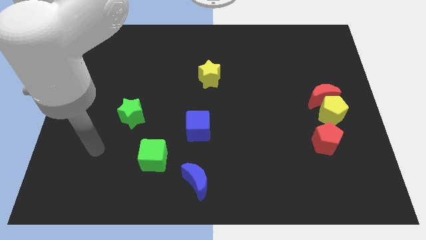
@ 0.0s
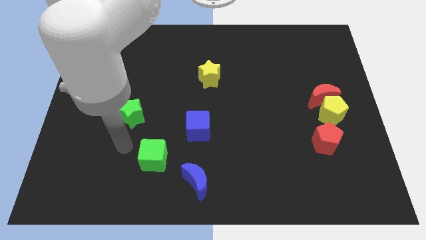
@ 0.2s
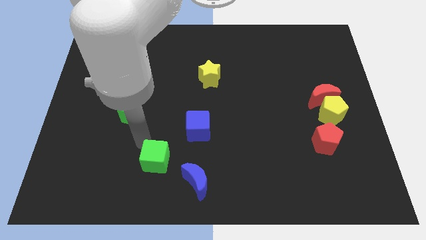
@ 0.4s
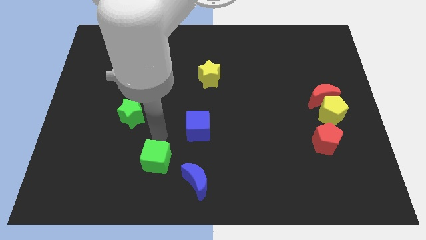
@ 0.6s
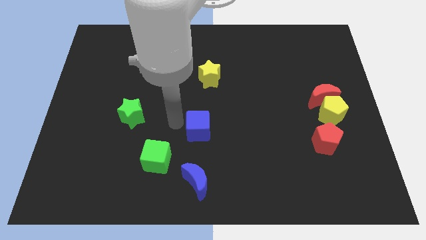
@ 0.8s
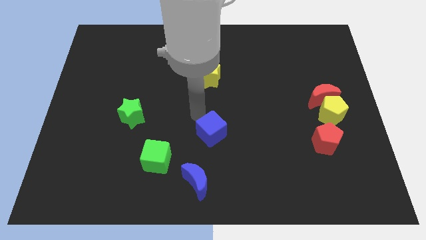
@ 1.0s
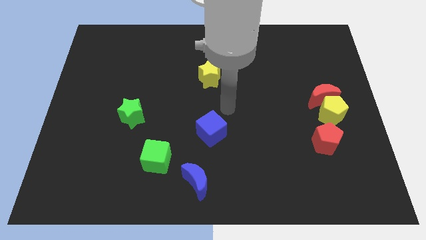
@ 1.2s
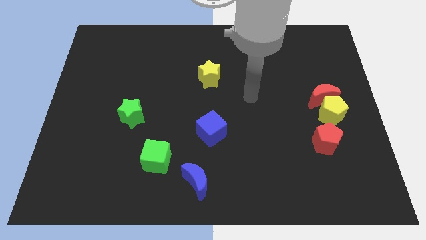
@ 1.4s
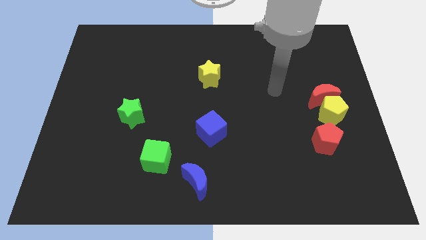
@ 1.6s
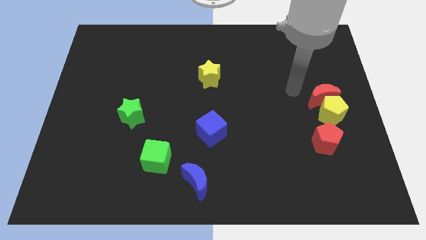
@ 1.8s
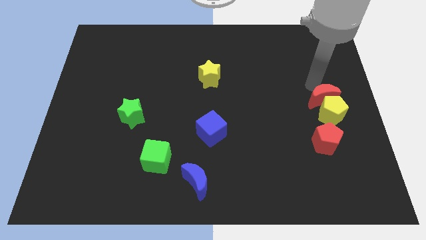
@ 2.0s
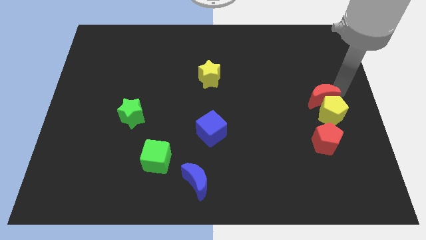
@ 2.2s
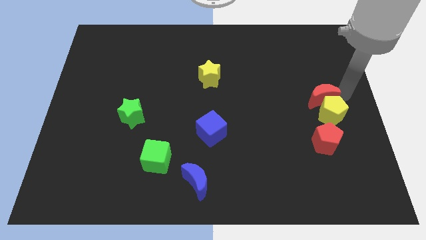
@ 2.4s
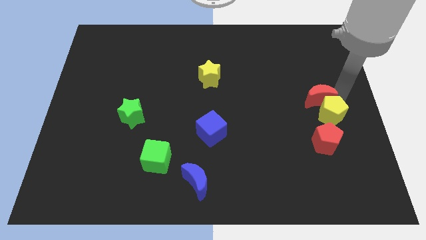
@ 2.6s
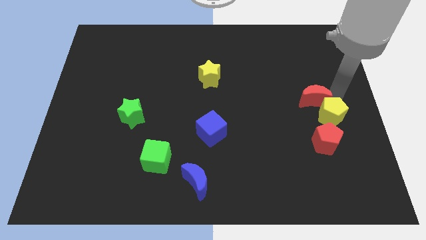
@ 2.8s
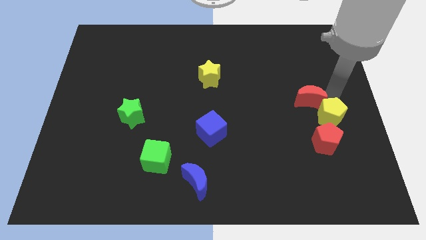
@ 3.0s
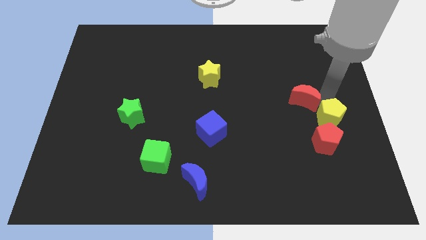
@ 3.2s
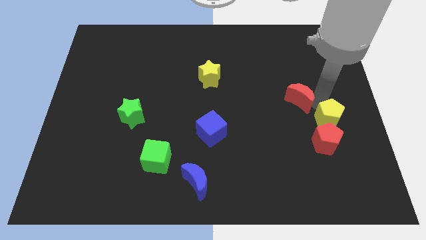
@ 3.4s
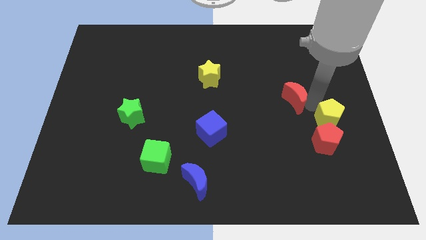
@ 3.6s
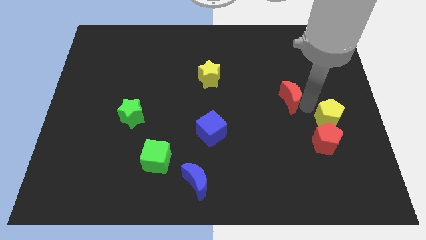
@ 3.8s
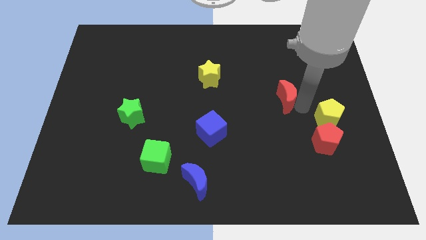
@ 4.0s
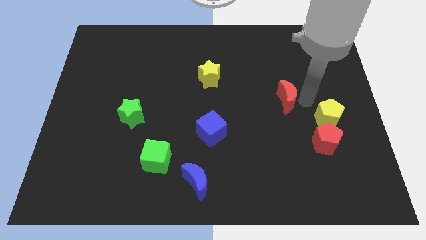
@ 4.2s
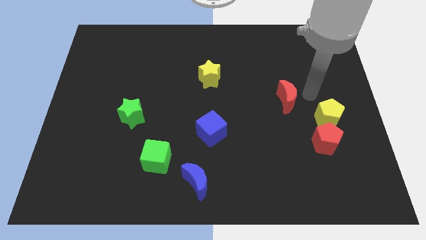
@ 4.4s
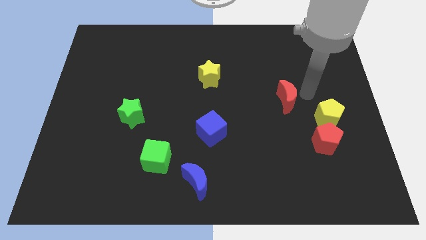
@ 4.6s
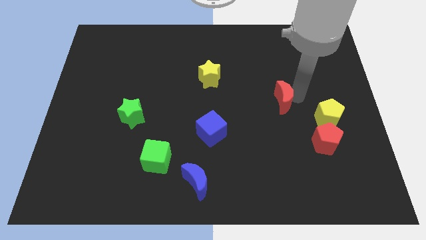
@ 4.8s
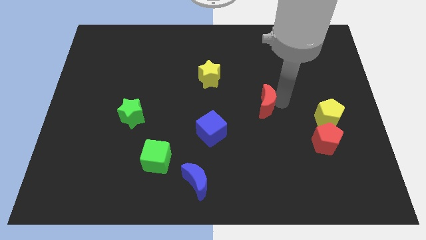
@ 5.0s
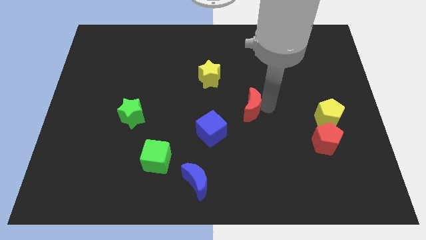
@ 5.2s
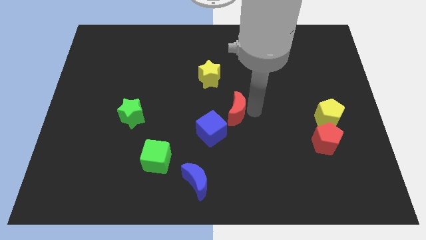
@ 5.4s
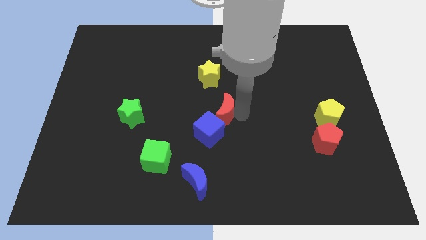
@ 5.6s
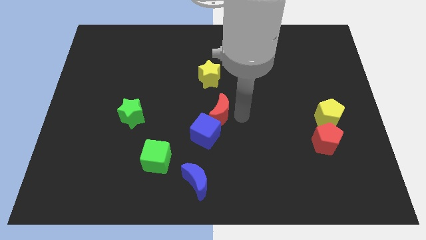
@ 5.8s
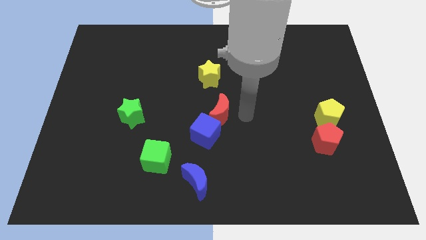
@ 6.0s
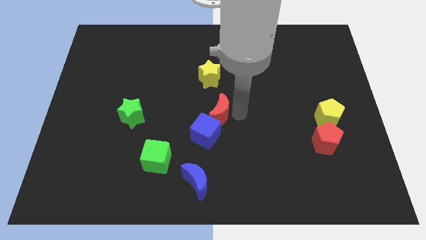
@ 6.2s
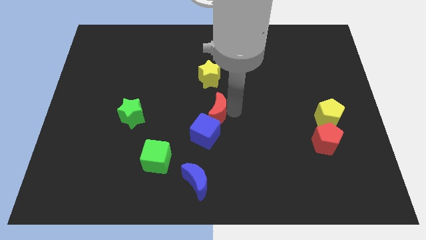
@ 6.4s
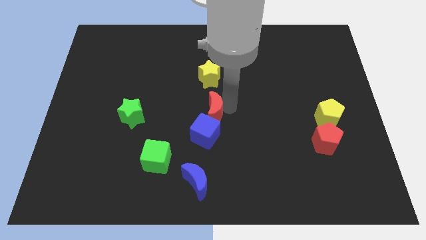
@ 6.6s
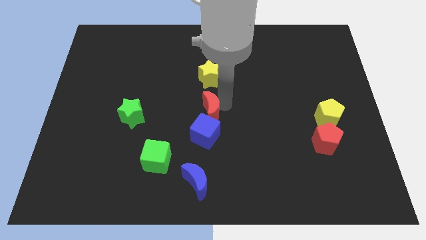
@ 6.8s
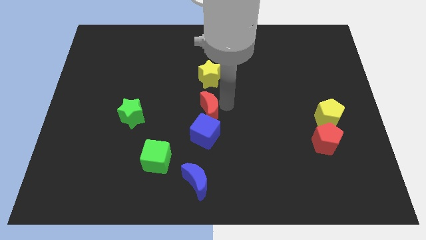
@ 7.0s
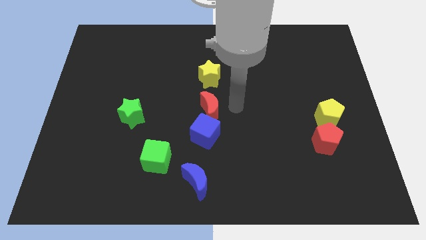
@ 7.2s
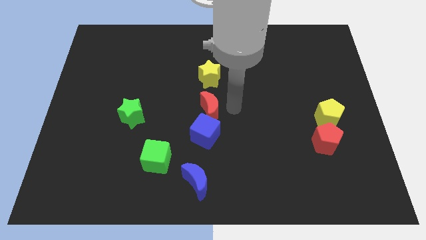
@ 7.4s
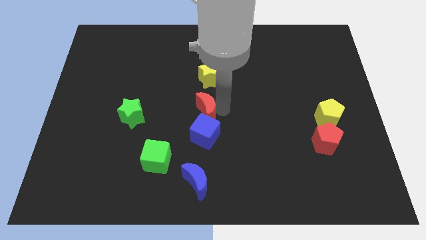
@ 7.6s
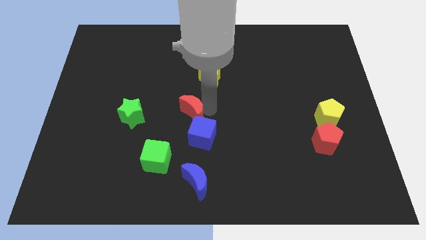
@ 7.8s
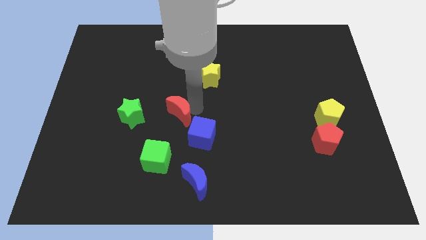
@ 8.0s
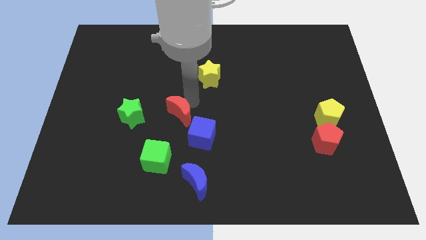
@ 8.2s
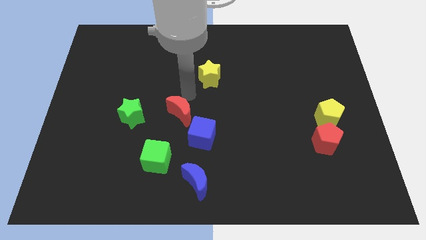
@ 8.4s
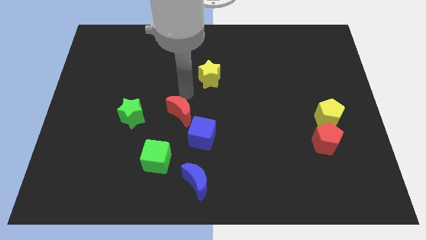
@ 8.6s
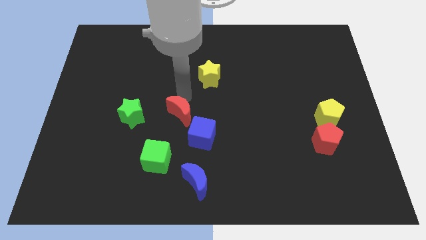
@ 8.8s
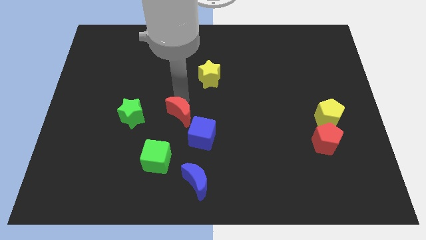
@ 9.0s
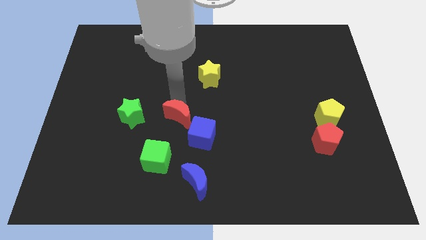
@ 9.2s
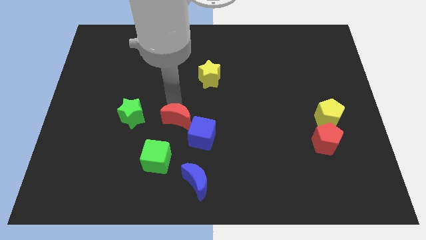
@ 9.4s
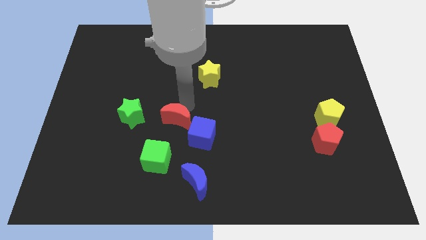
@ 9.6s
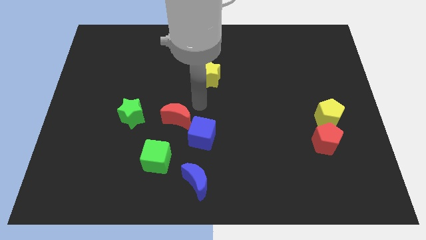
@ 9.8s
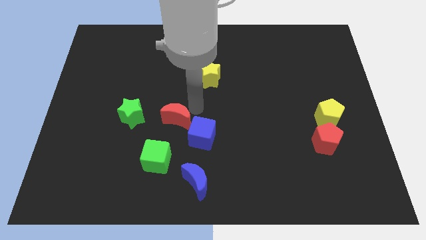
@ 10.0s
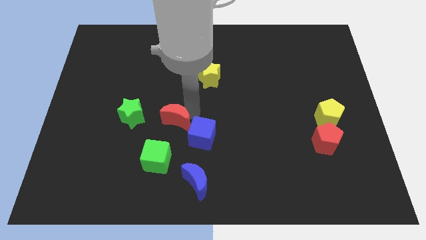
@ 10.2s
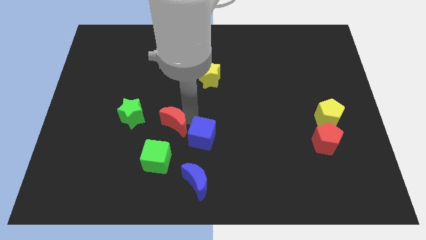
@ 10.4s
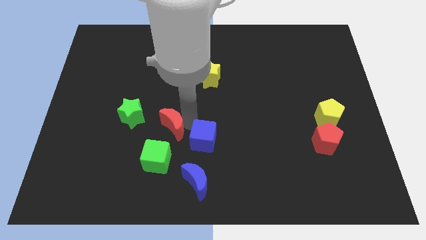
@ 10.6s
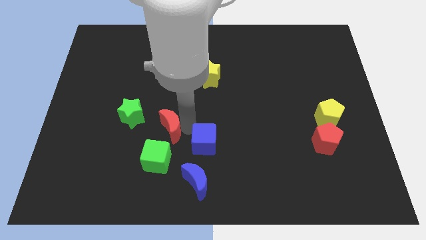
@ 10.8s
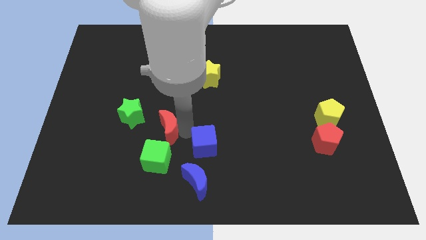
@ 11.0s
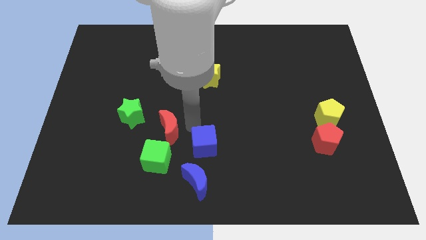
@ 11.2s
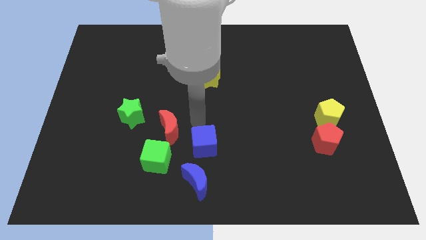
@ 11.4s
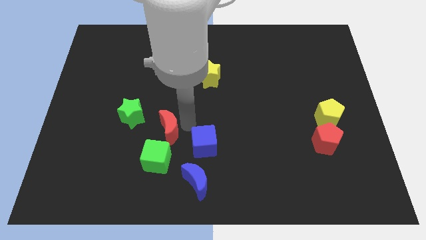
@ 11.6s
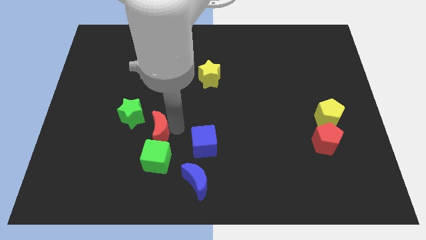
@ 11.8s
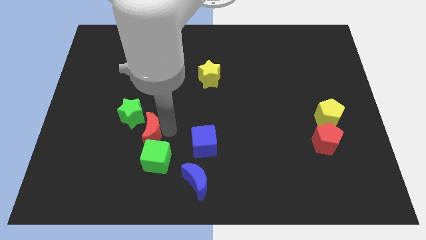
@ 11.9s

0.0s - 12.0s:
push the red moon to the top left of the green cube

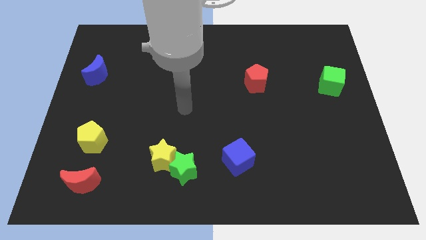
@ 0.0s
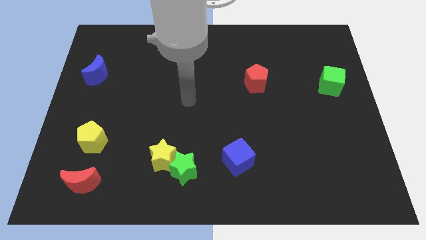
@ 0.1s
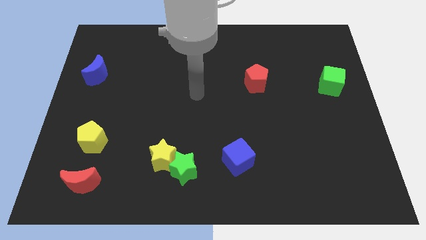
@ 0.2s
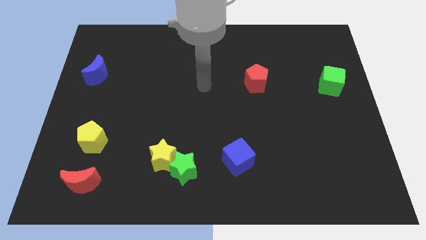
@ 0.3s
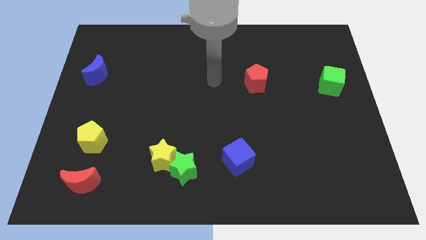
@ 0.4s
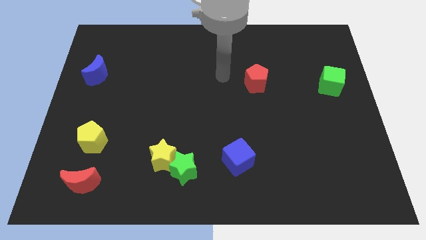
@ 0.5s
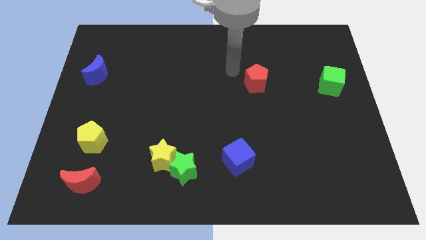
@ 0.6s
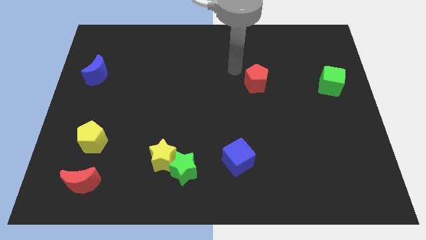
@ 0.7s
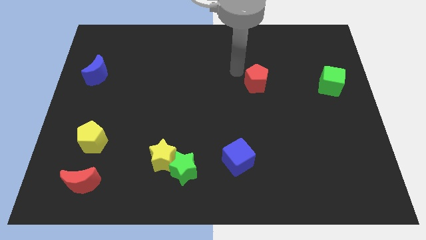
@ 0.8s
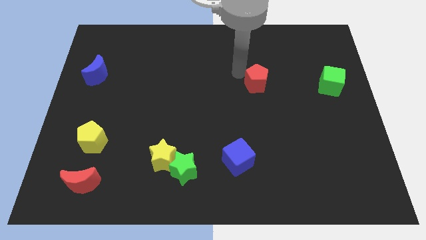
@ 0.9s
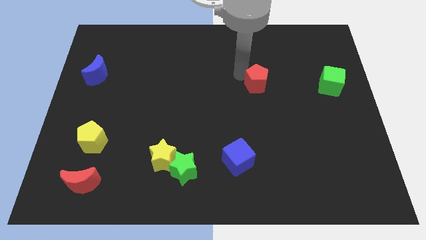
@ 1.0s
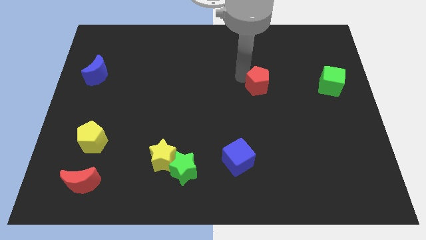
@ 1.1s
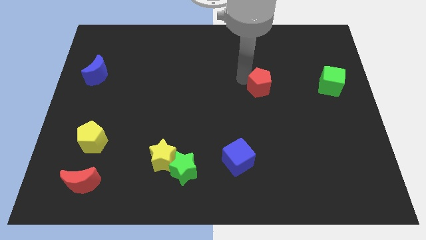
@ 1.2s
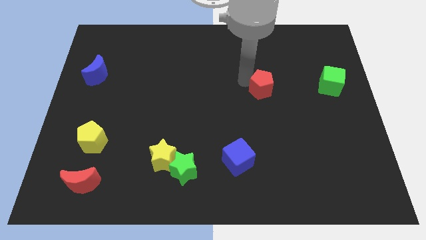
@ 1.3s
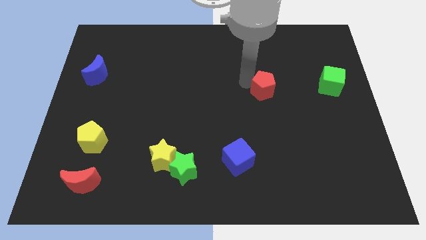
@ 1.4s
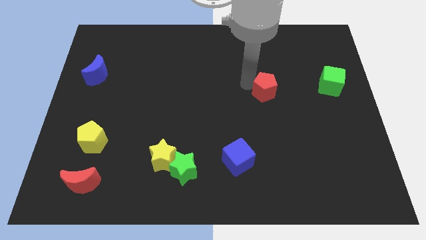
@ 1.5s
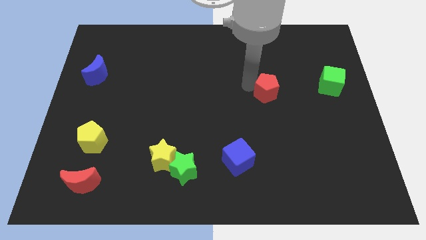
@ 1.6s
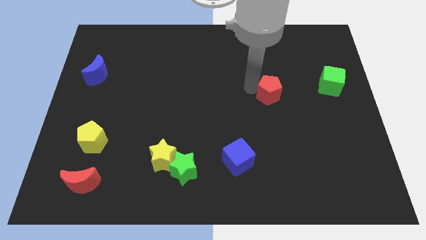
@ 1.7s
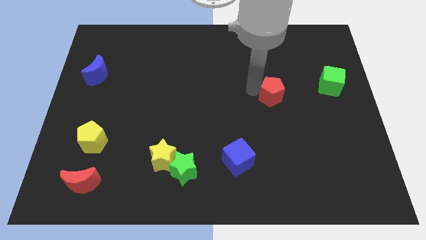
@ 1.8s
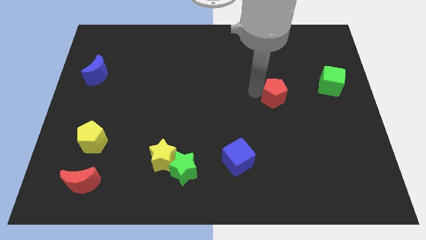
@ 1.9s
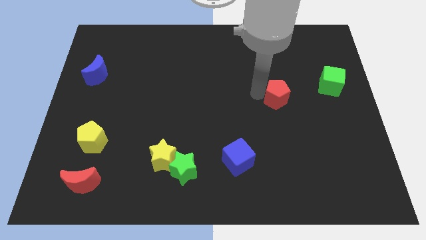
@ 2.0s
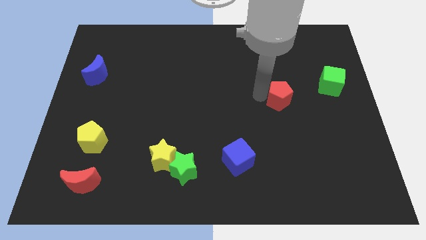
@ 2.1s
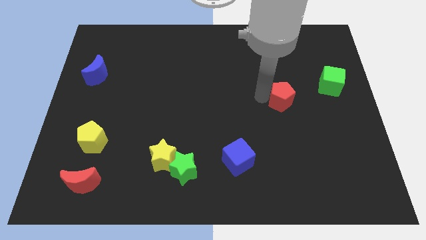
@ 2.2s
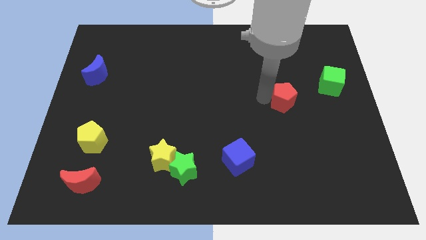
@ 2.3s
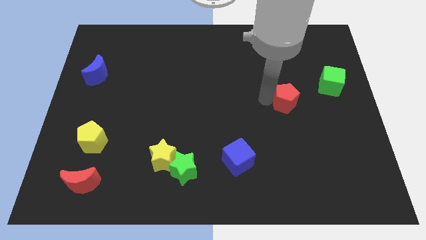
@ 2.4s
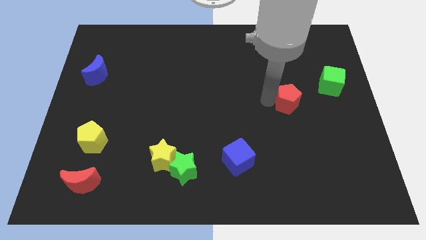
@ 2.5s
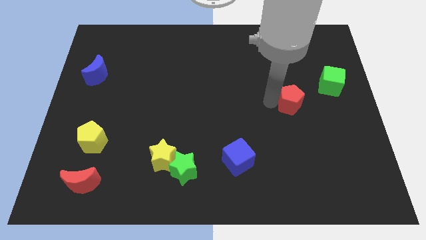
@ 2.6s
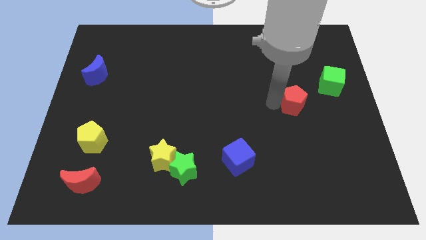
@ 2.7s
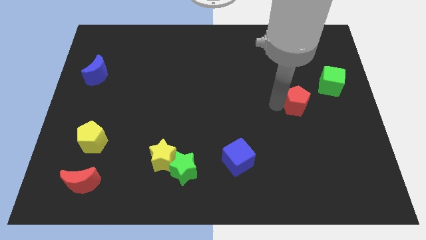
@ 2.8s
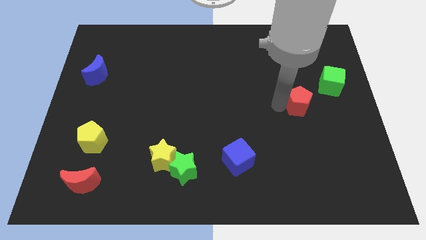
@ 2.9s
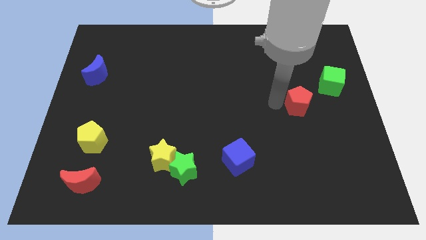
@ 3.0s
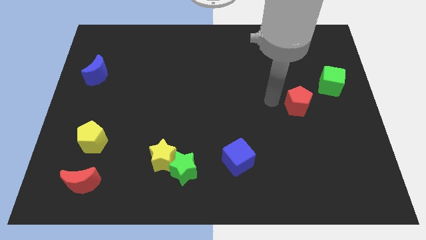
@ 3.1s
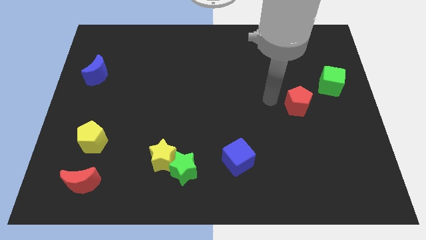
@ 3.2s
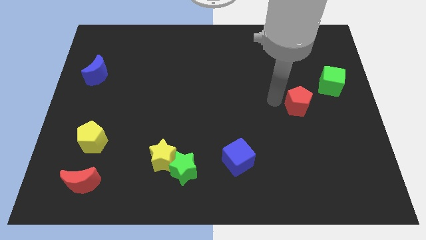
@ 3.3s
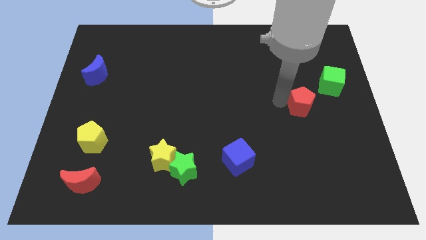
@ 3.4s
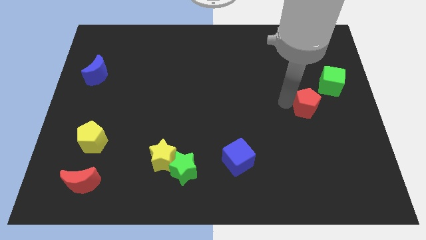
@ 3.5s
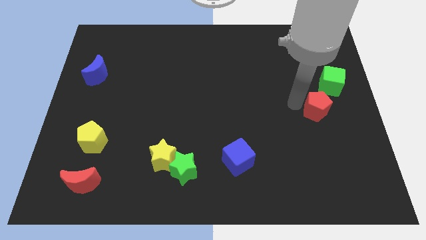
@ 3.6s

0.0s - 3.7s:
move the red pentagon to the bottom side of the green cube
